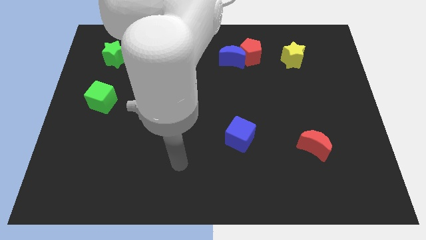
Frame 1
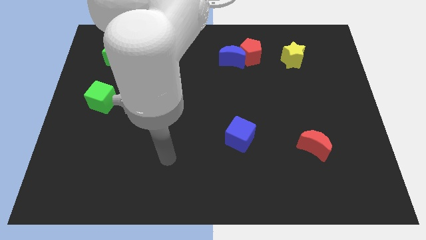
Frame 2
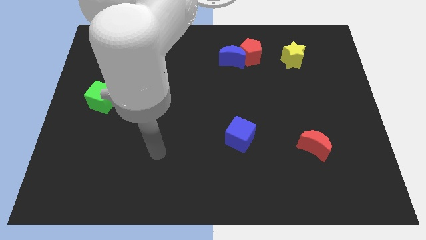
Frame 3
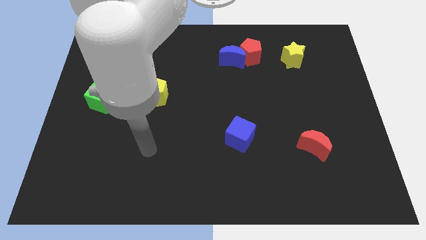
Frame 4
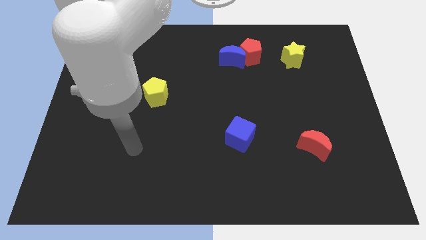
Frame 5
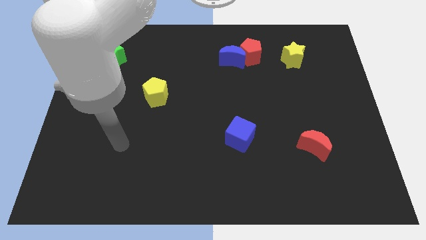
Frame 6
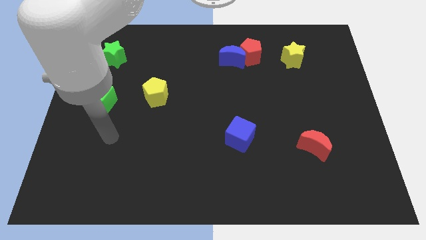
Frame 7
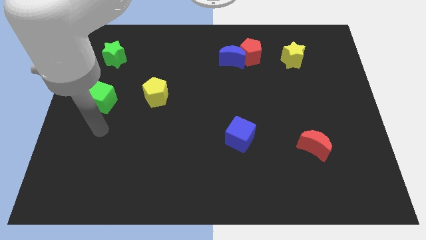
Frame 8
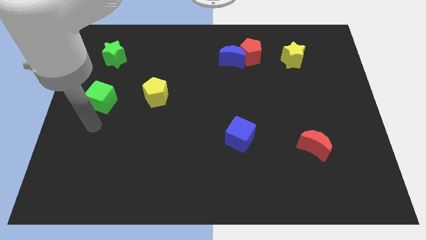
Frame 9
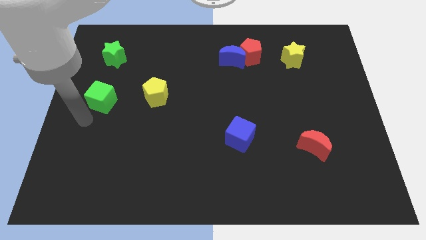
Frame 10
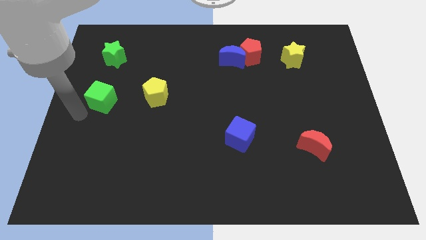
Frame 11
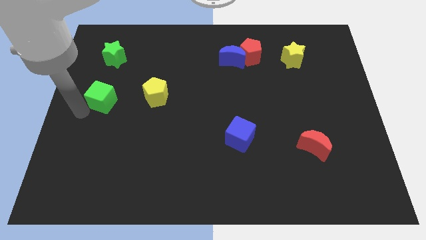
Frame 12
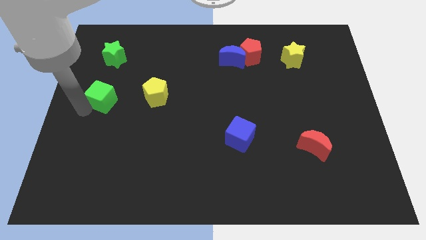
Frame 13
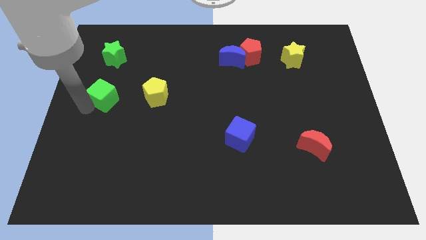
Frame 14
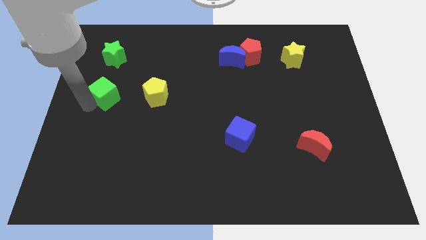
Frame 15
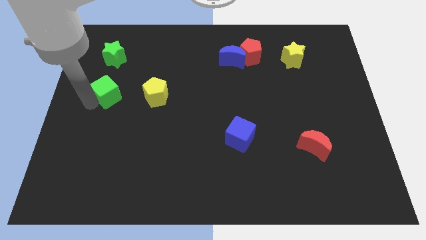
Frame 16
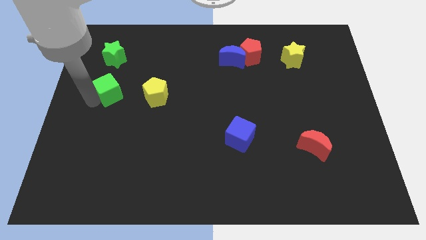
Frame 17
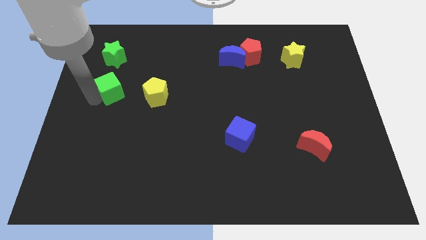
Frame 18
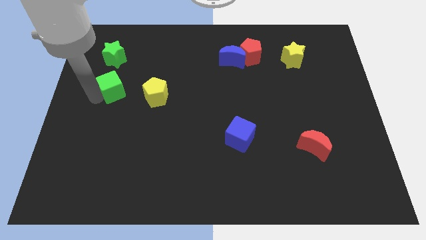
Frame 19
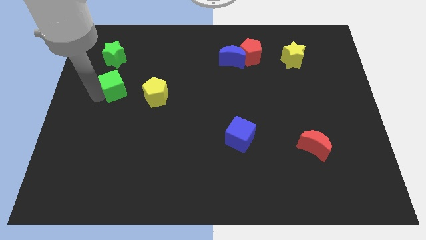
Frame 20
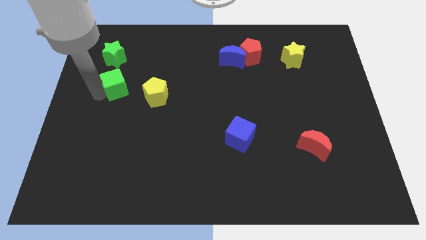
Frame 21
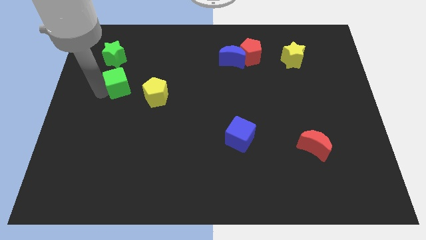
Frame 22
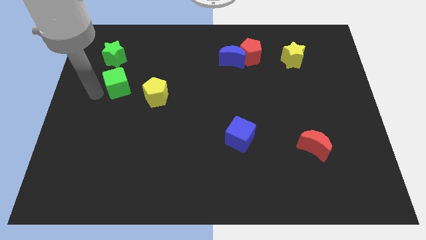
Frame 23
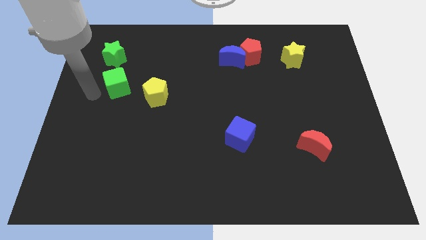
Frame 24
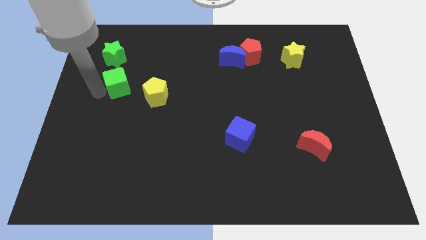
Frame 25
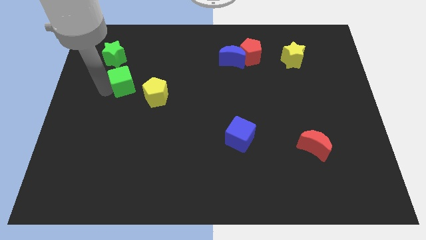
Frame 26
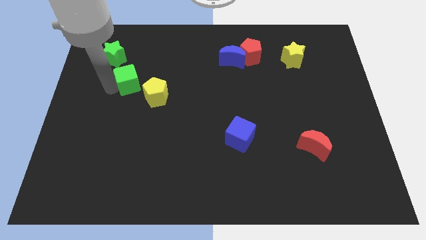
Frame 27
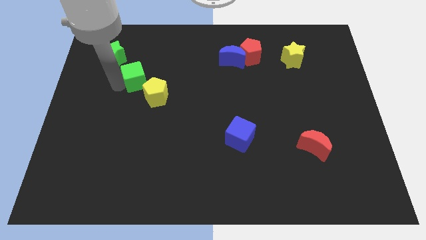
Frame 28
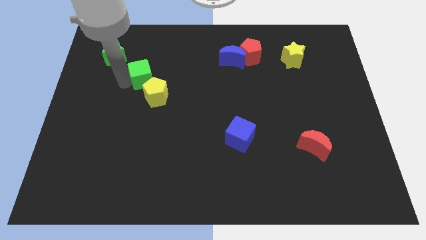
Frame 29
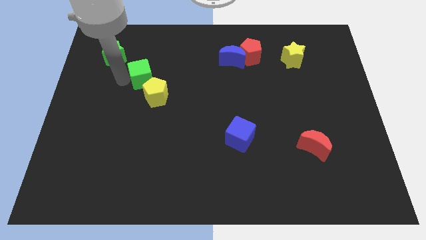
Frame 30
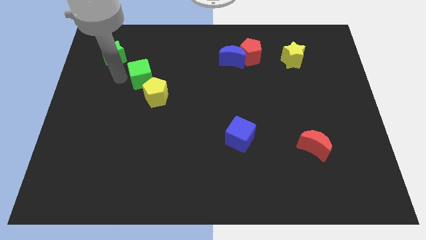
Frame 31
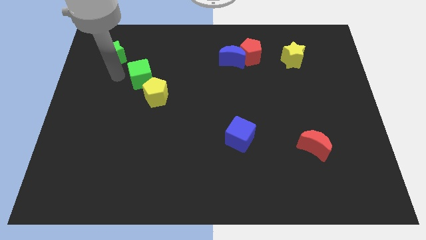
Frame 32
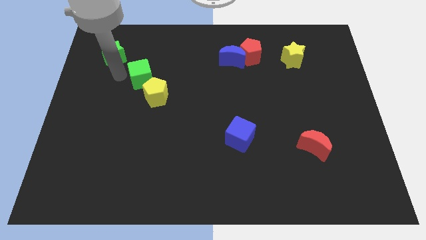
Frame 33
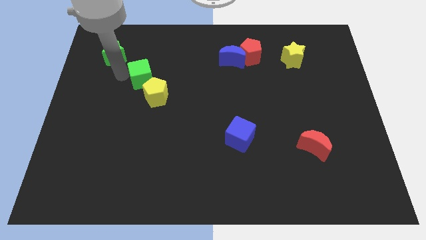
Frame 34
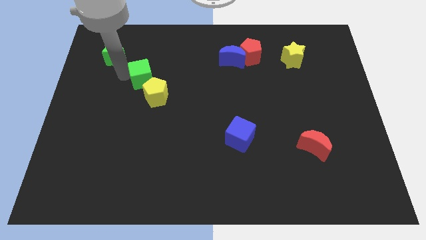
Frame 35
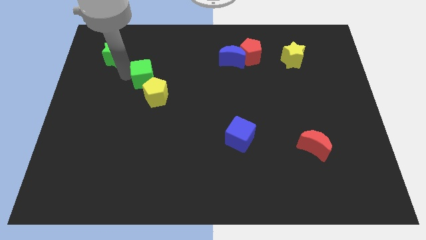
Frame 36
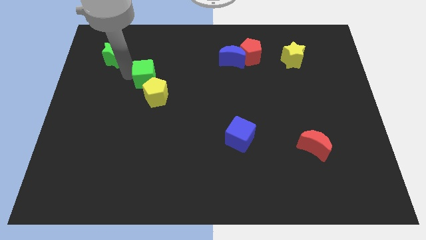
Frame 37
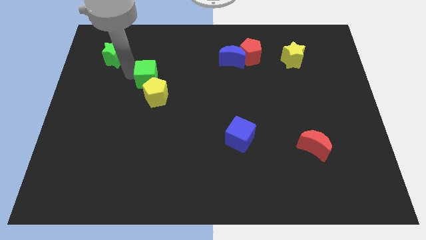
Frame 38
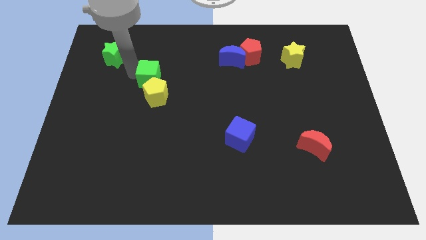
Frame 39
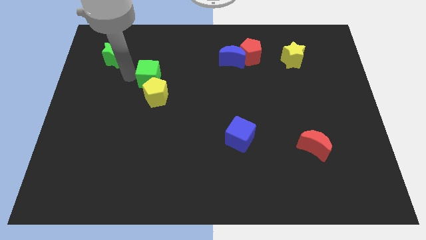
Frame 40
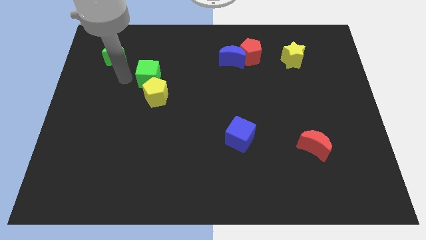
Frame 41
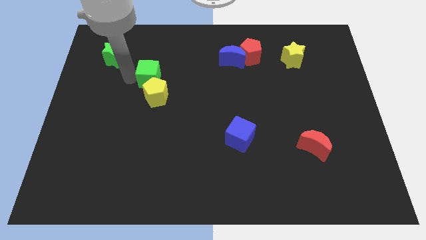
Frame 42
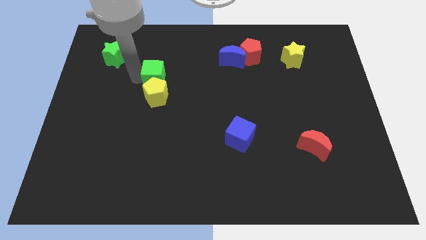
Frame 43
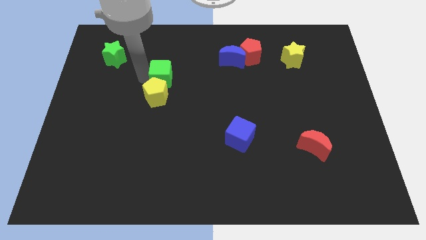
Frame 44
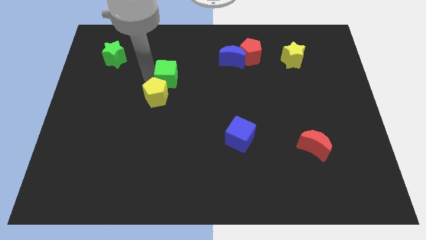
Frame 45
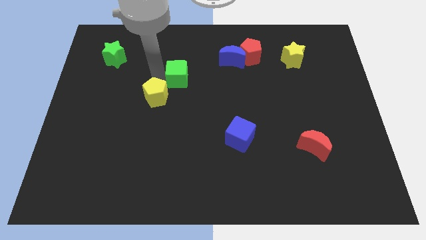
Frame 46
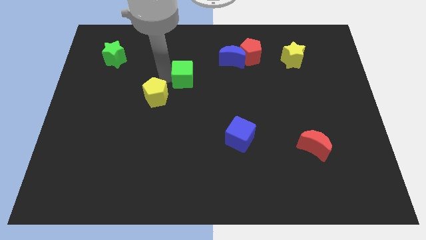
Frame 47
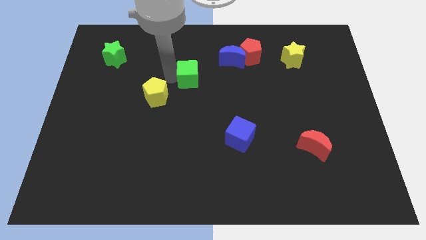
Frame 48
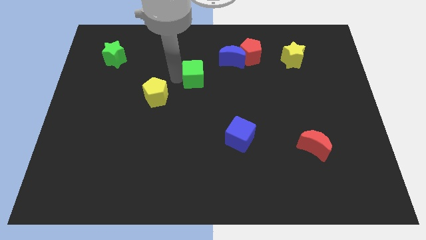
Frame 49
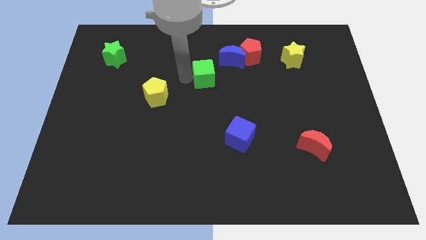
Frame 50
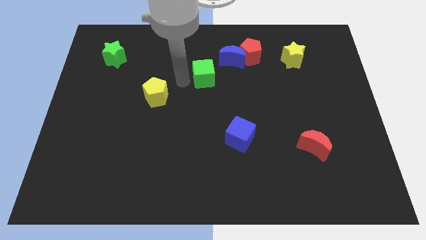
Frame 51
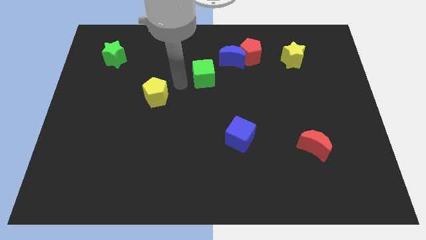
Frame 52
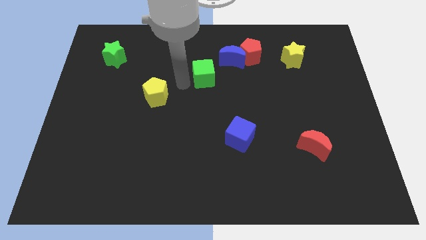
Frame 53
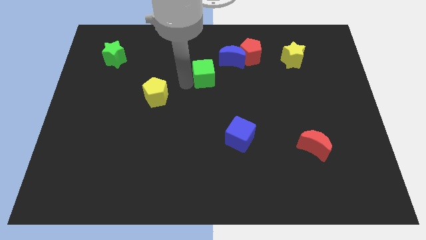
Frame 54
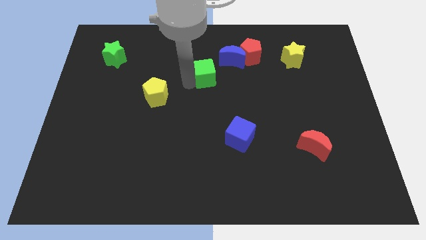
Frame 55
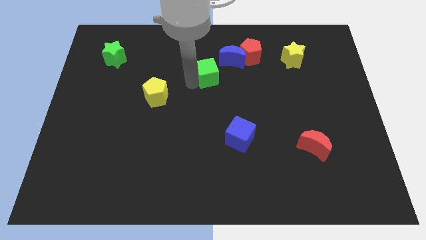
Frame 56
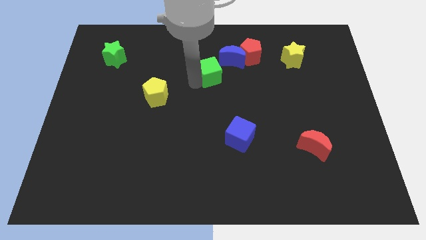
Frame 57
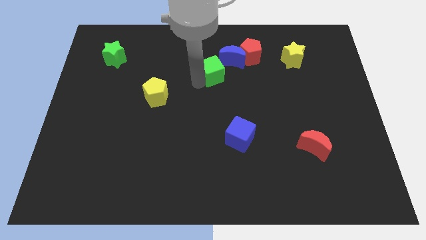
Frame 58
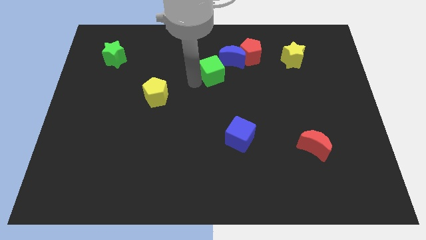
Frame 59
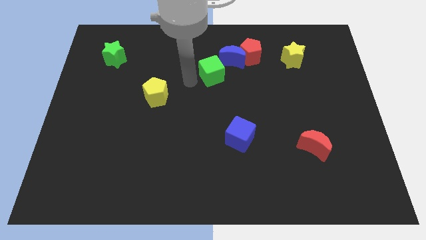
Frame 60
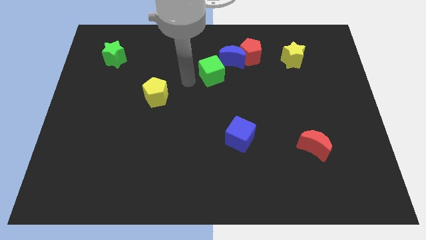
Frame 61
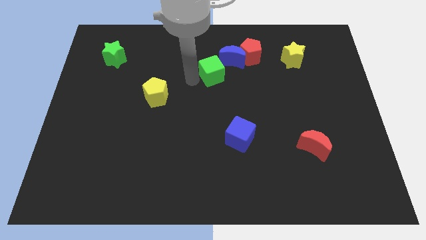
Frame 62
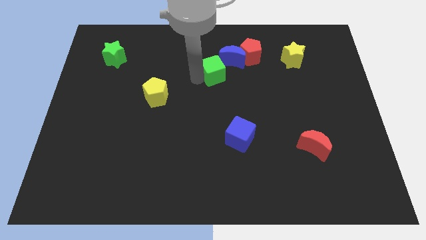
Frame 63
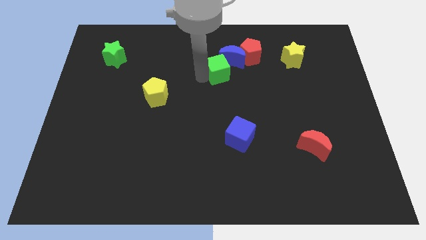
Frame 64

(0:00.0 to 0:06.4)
put the green cube towards the blue moon
